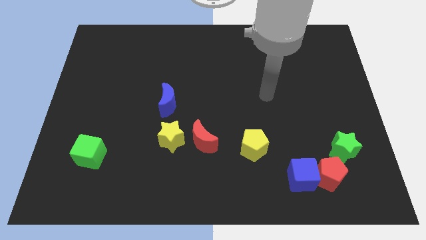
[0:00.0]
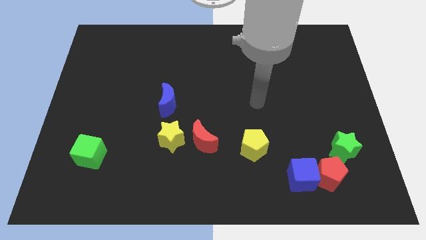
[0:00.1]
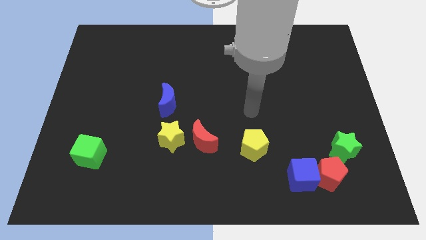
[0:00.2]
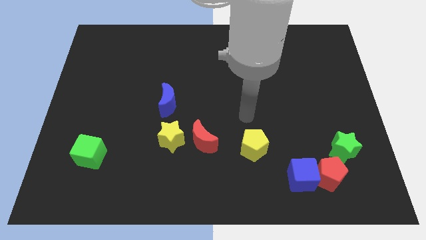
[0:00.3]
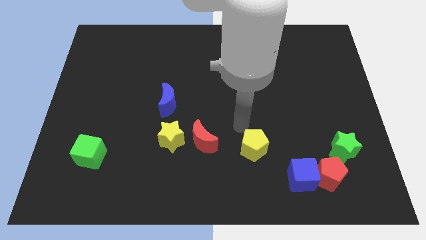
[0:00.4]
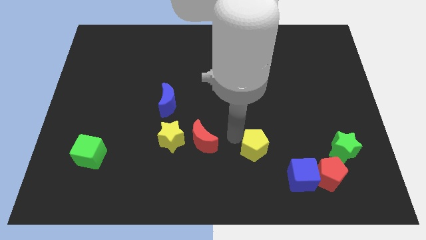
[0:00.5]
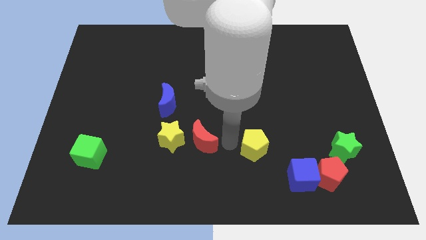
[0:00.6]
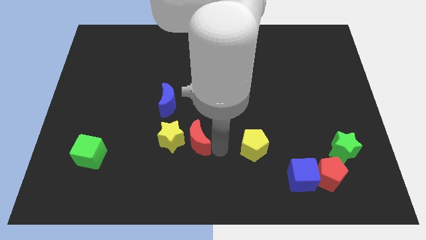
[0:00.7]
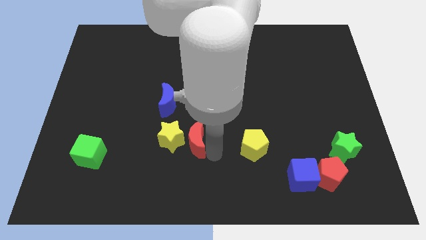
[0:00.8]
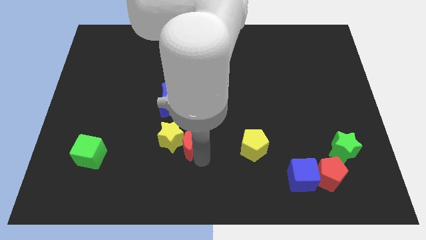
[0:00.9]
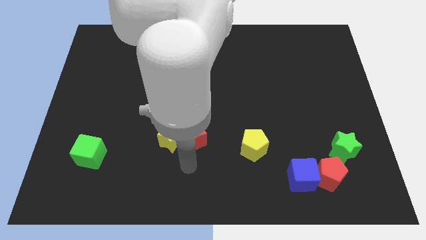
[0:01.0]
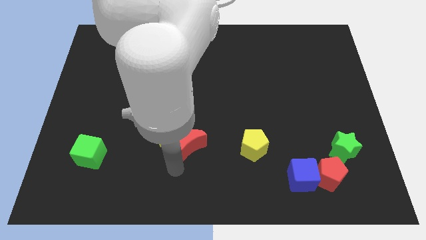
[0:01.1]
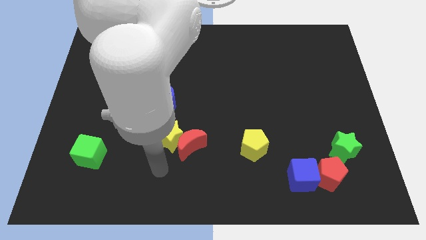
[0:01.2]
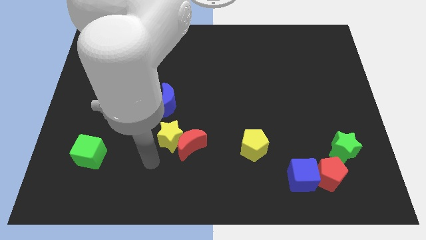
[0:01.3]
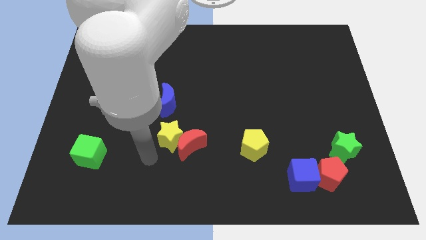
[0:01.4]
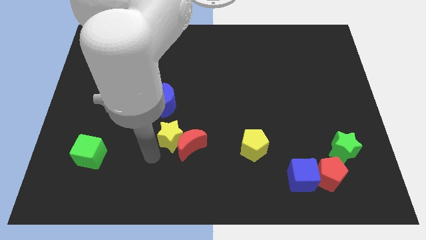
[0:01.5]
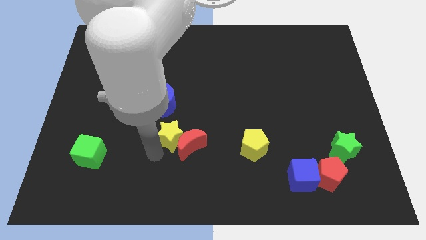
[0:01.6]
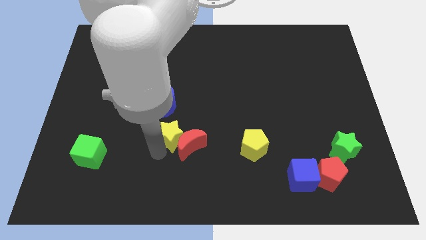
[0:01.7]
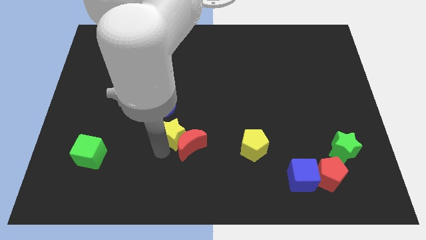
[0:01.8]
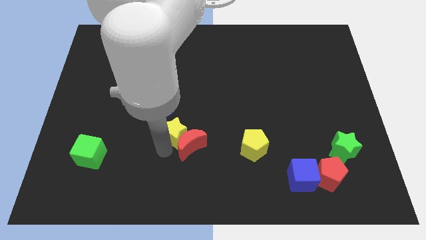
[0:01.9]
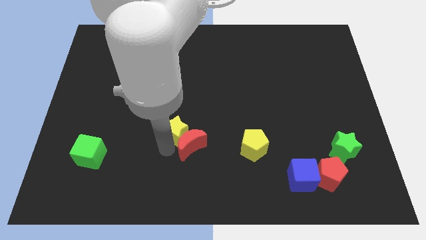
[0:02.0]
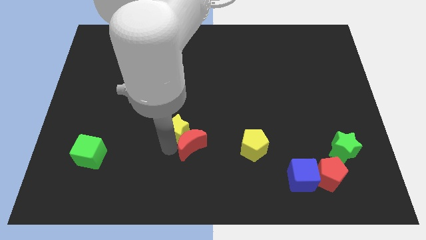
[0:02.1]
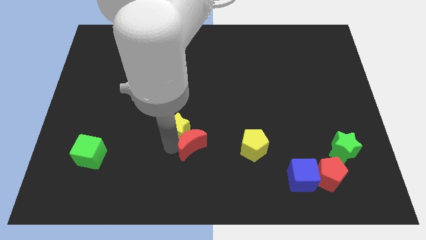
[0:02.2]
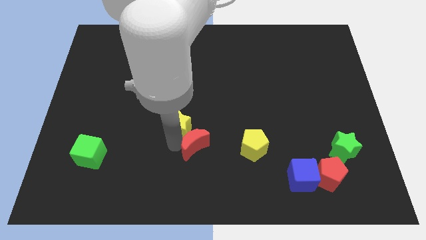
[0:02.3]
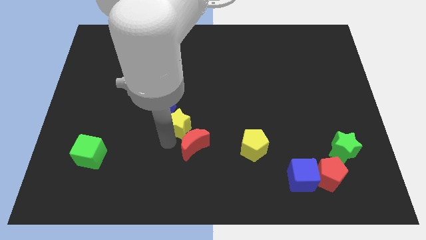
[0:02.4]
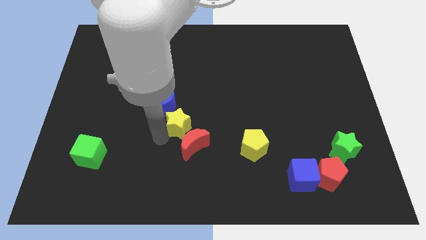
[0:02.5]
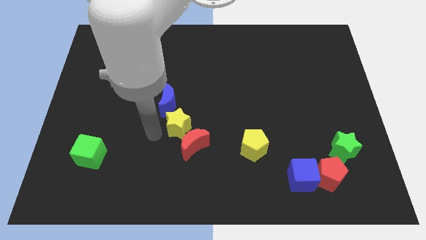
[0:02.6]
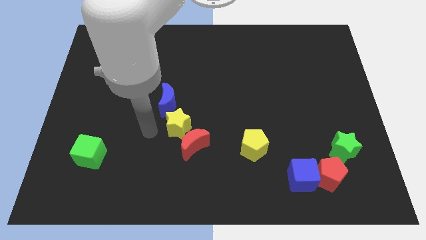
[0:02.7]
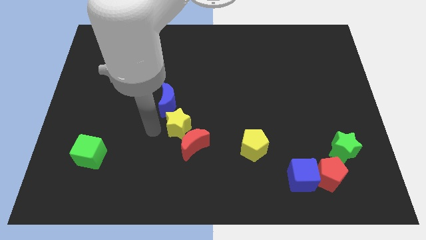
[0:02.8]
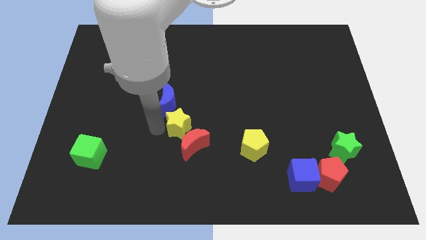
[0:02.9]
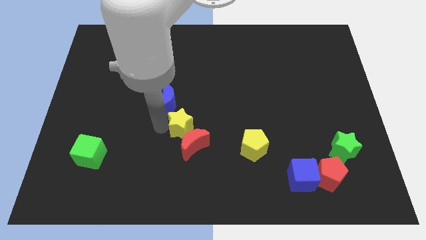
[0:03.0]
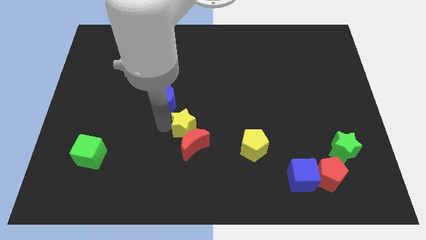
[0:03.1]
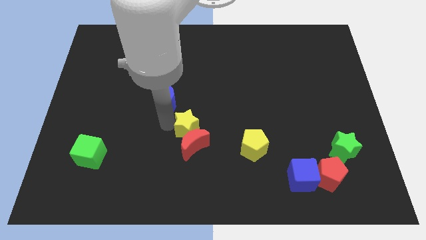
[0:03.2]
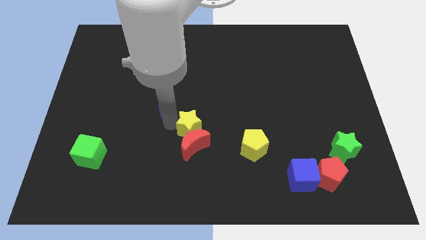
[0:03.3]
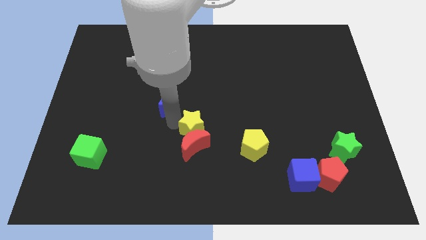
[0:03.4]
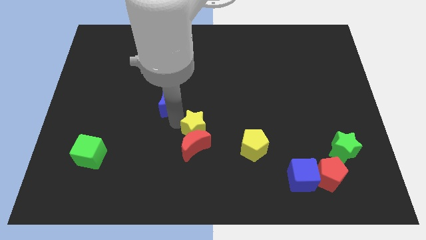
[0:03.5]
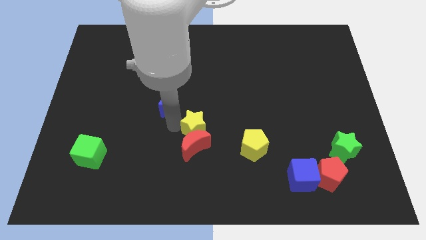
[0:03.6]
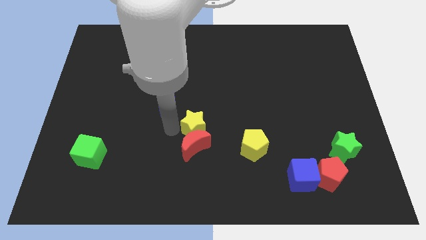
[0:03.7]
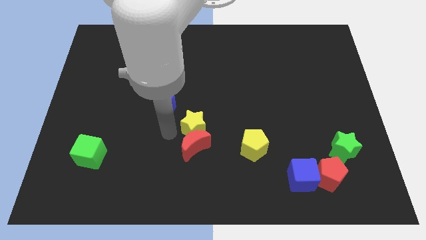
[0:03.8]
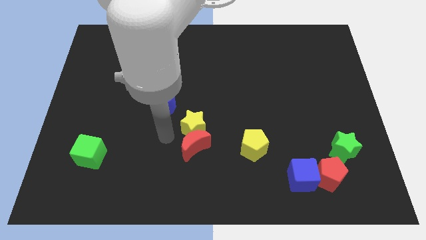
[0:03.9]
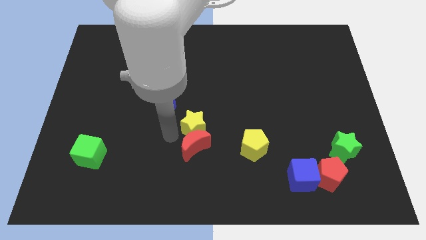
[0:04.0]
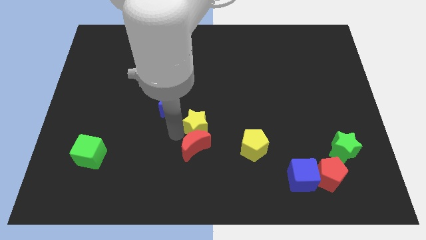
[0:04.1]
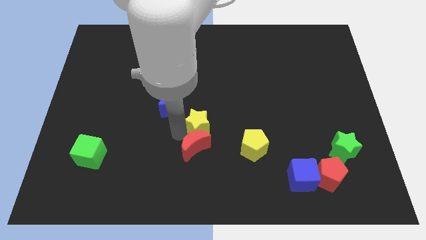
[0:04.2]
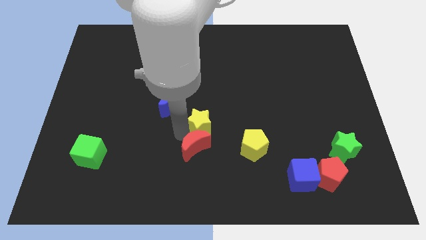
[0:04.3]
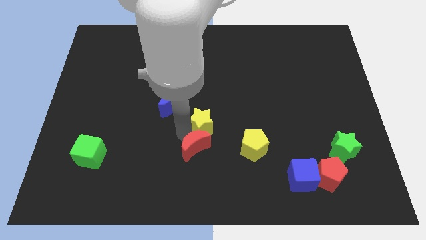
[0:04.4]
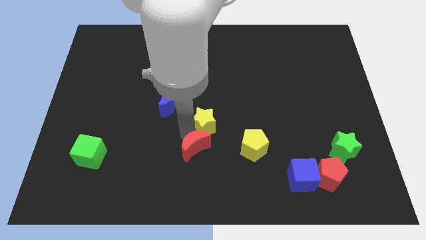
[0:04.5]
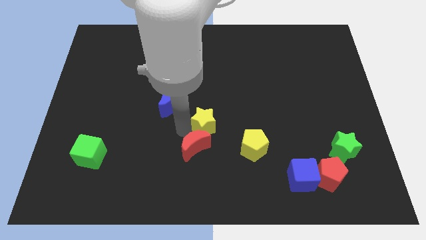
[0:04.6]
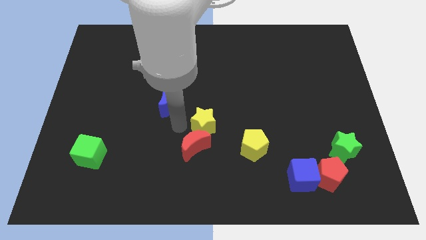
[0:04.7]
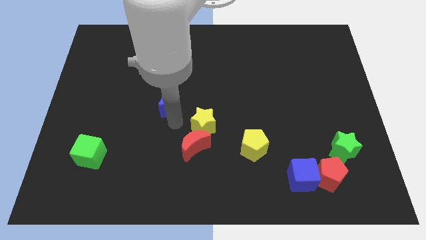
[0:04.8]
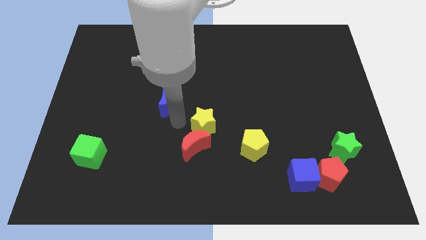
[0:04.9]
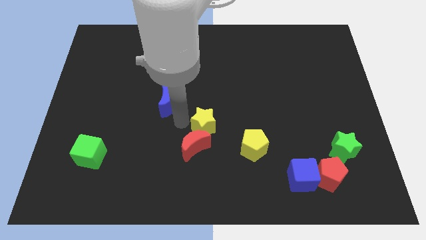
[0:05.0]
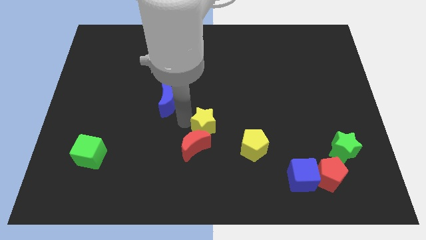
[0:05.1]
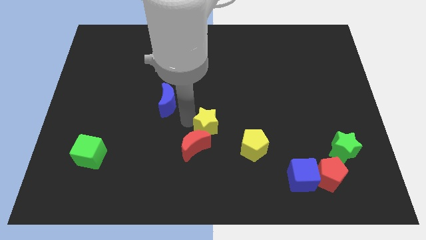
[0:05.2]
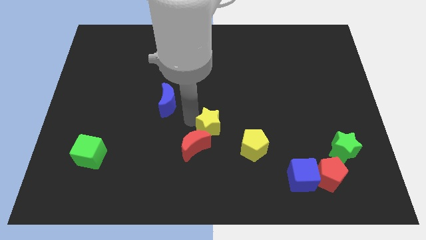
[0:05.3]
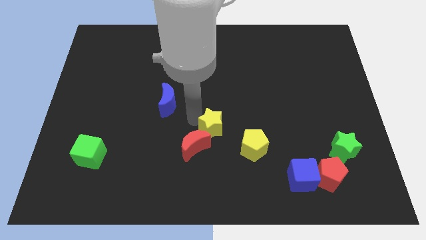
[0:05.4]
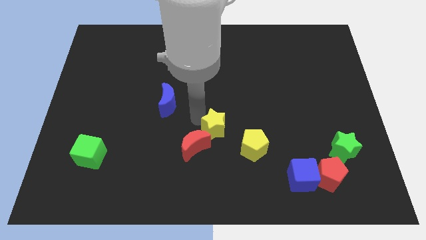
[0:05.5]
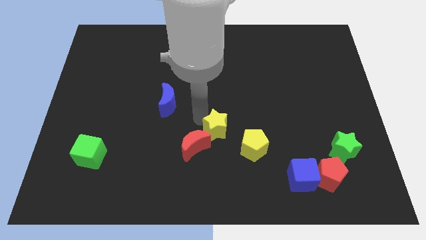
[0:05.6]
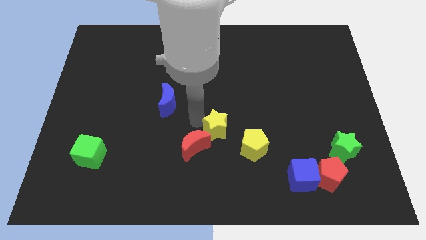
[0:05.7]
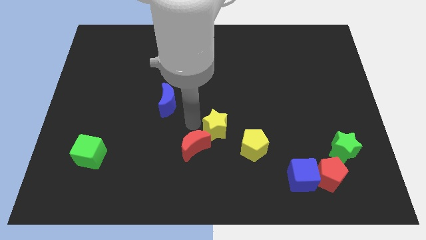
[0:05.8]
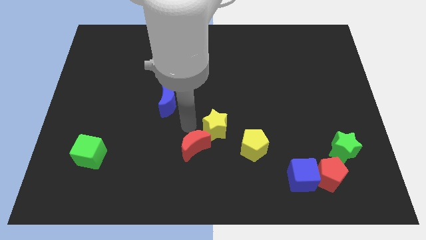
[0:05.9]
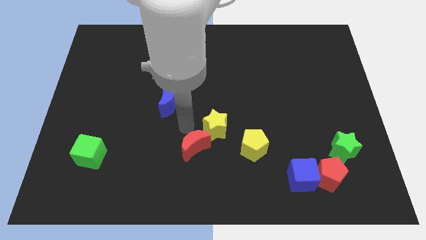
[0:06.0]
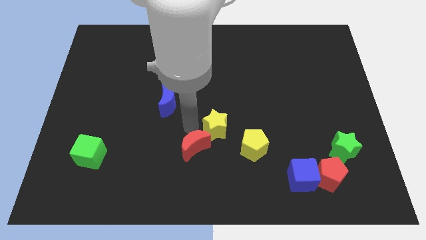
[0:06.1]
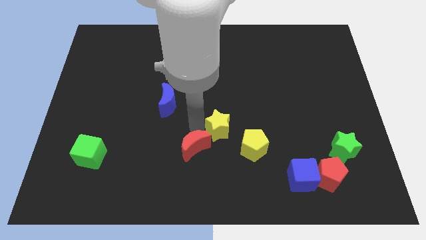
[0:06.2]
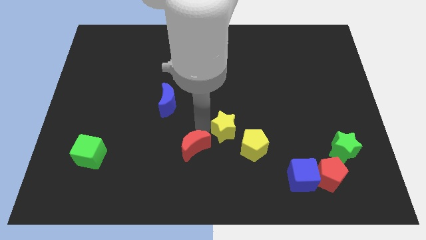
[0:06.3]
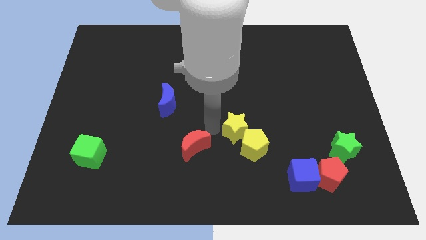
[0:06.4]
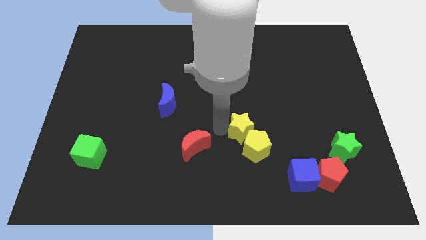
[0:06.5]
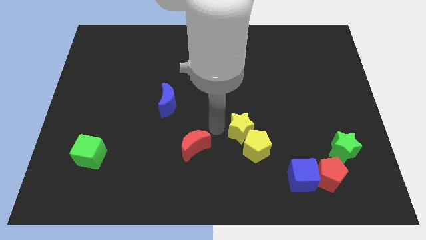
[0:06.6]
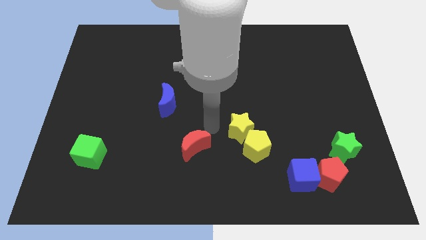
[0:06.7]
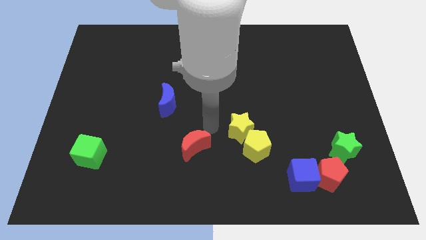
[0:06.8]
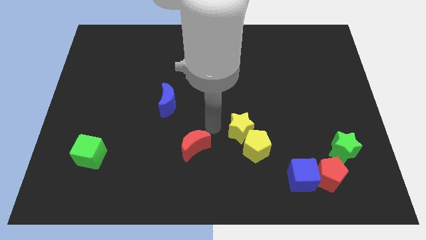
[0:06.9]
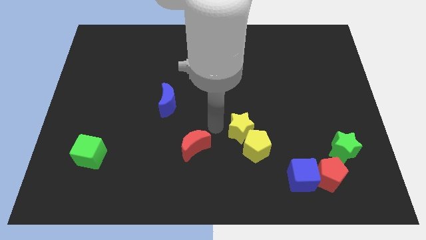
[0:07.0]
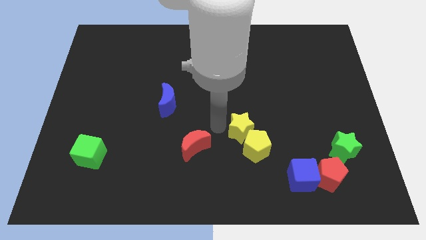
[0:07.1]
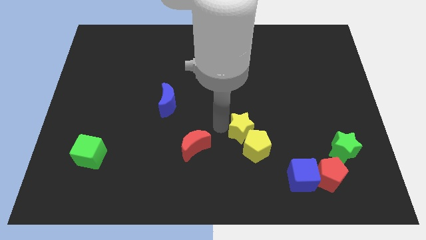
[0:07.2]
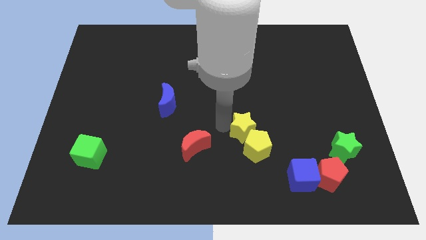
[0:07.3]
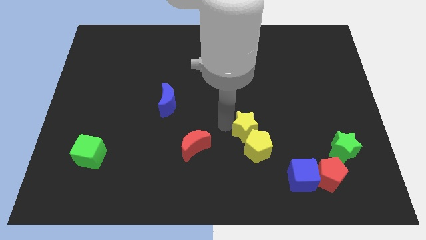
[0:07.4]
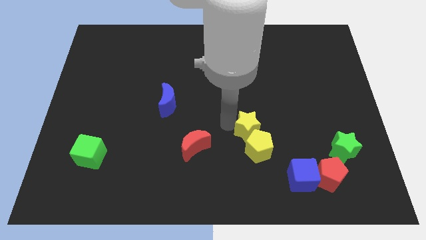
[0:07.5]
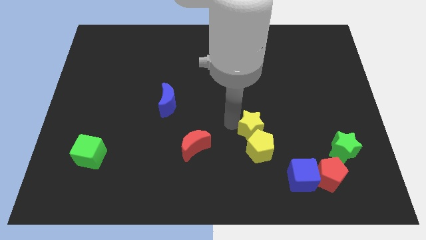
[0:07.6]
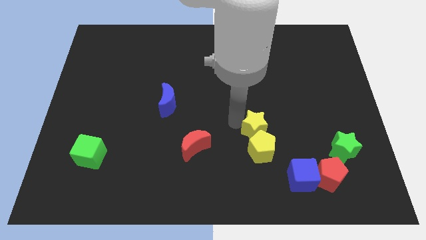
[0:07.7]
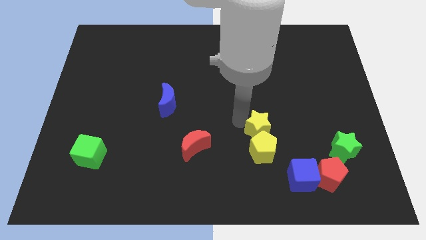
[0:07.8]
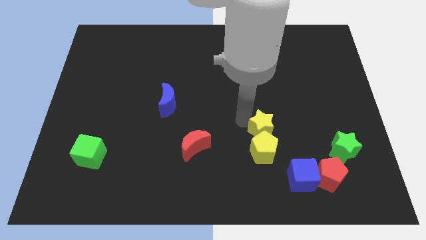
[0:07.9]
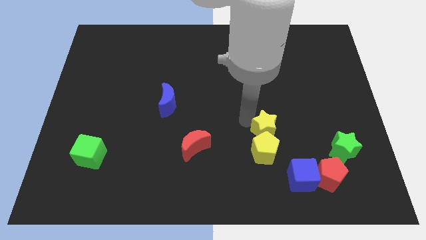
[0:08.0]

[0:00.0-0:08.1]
push the yellow star right
